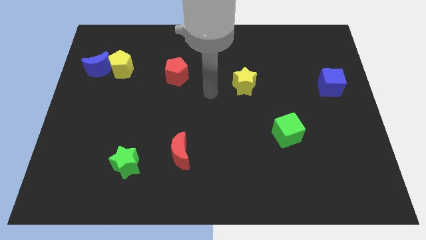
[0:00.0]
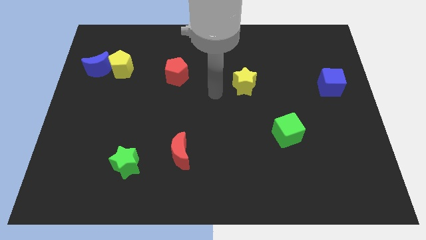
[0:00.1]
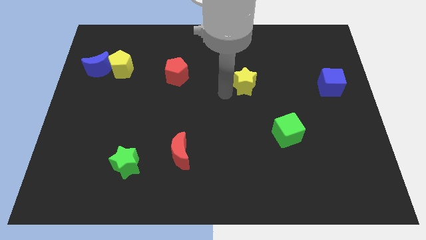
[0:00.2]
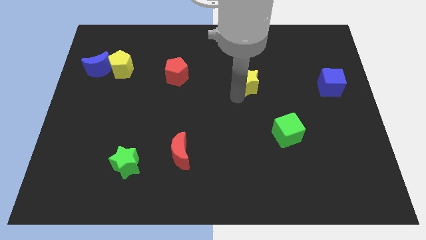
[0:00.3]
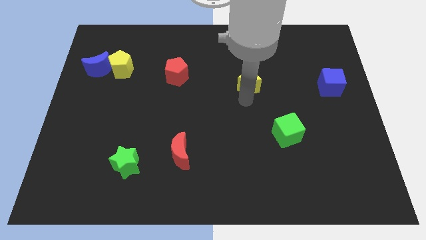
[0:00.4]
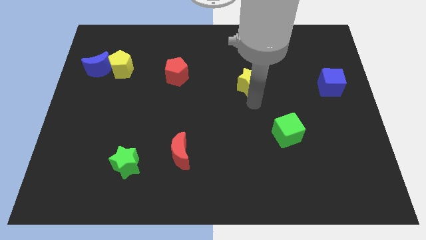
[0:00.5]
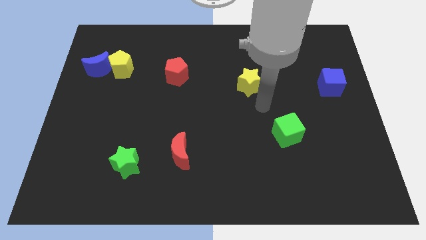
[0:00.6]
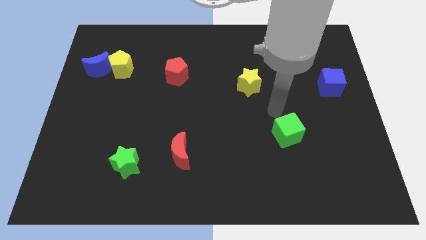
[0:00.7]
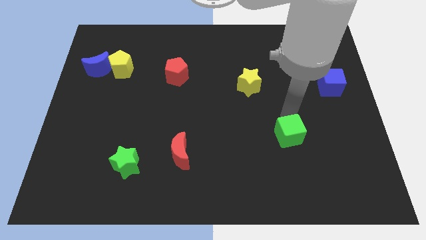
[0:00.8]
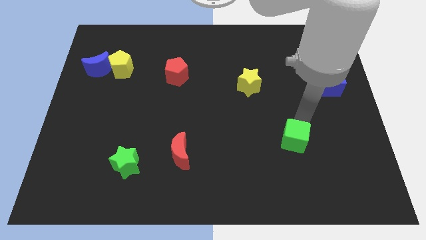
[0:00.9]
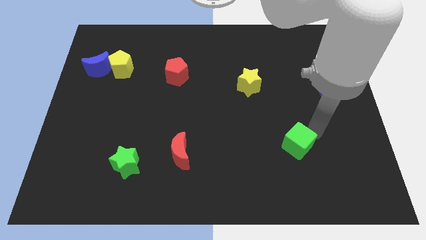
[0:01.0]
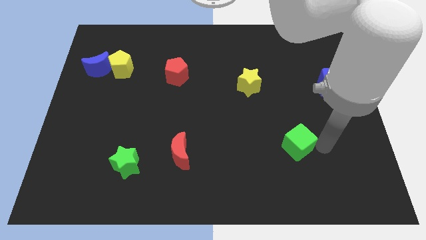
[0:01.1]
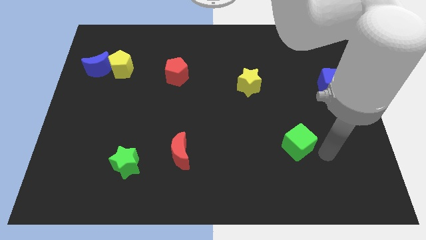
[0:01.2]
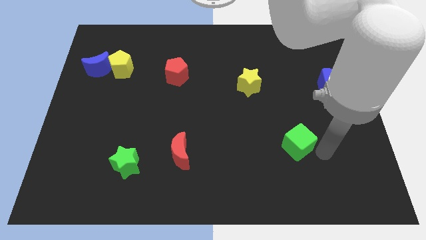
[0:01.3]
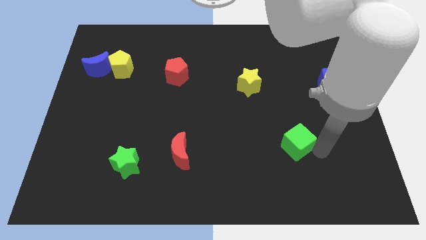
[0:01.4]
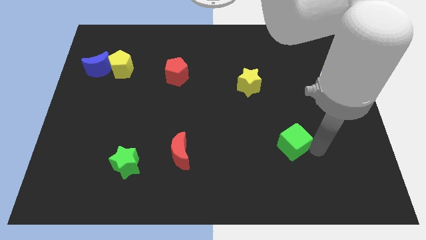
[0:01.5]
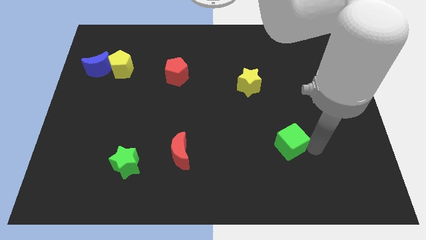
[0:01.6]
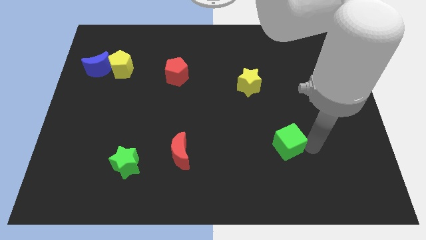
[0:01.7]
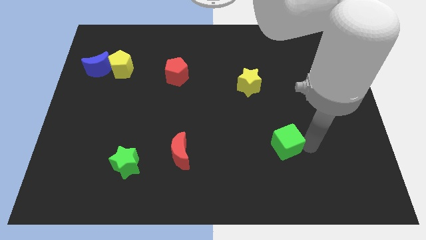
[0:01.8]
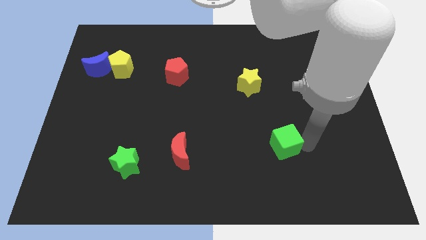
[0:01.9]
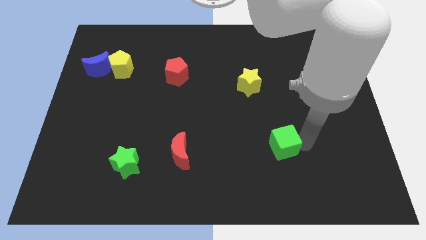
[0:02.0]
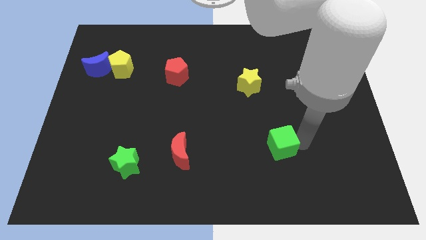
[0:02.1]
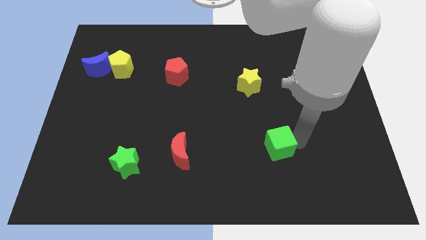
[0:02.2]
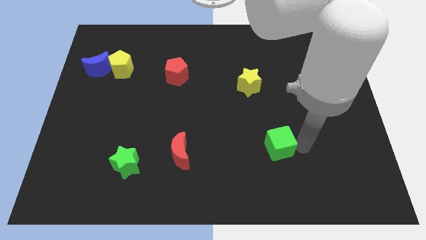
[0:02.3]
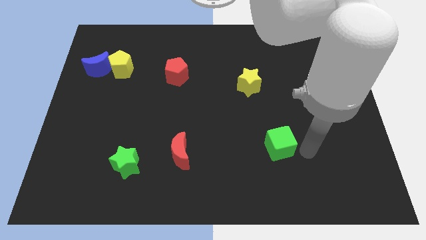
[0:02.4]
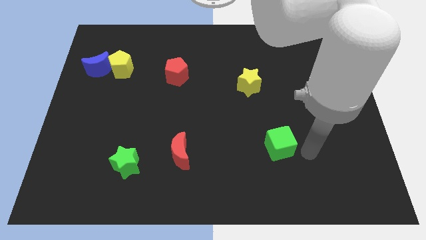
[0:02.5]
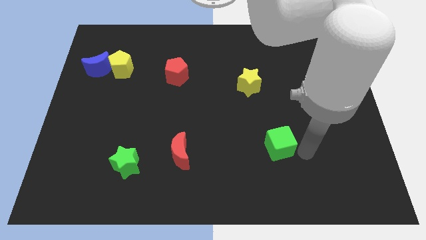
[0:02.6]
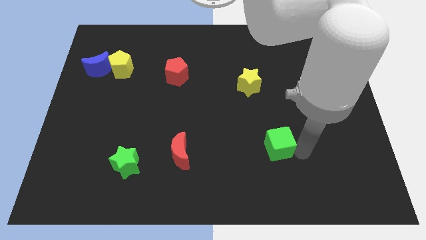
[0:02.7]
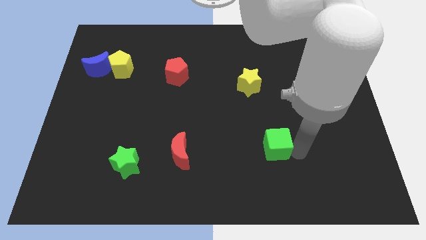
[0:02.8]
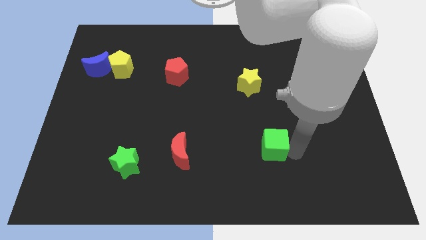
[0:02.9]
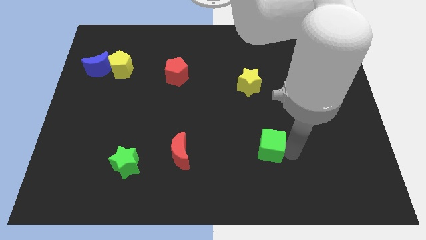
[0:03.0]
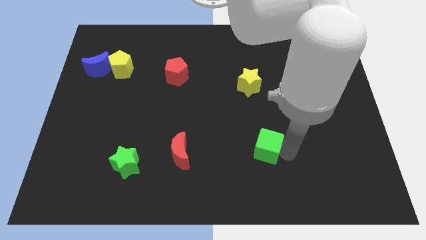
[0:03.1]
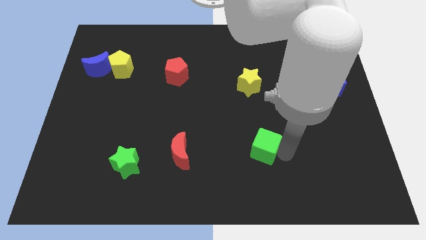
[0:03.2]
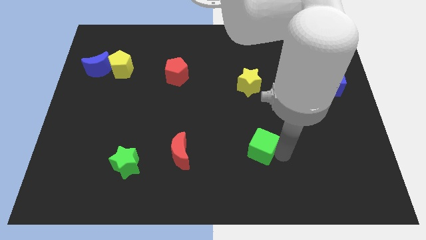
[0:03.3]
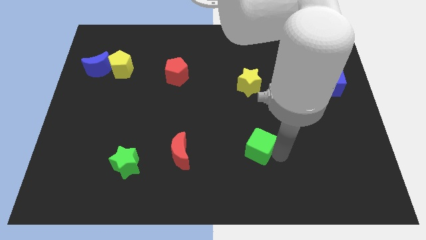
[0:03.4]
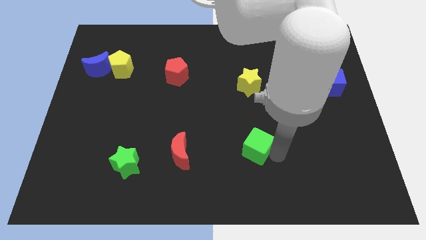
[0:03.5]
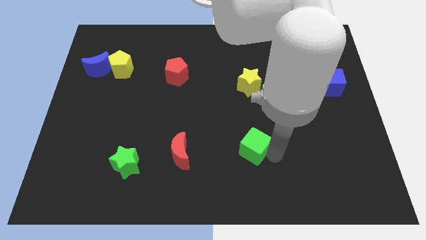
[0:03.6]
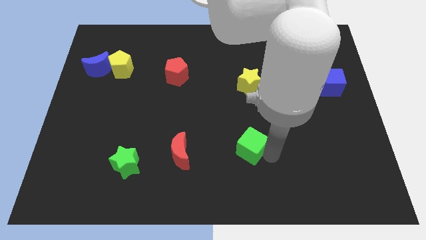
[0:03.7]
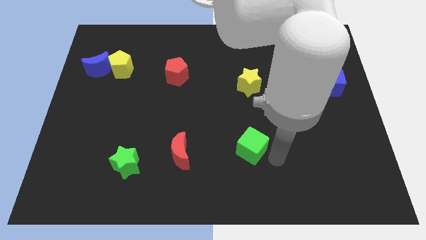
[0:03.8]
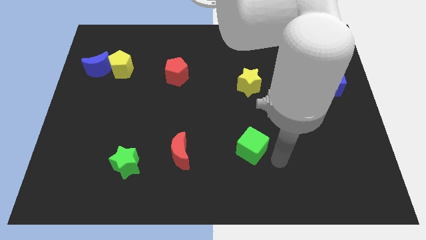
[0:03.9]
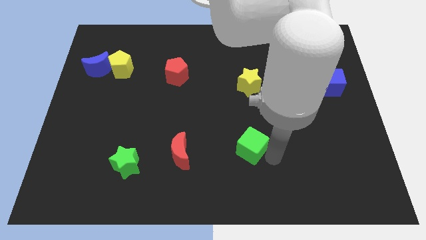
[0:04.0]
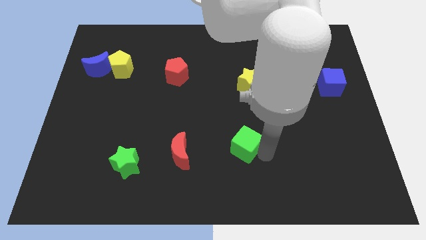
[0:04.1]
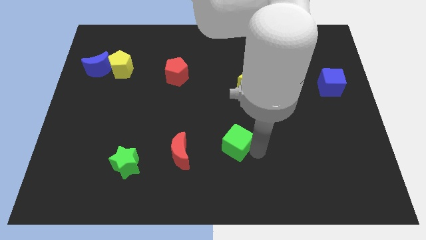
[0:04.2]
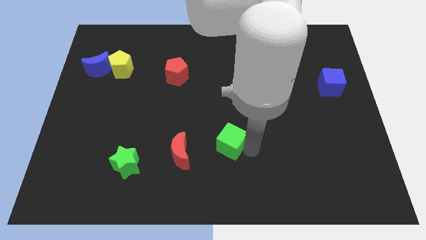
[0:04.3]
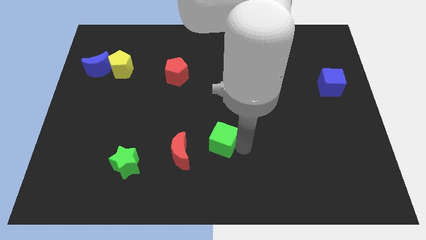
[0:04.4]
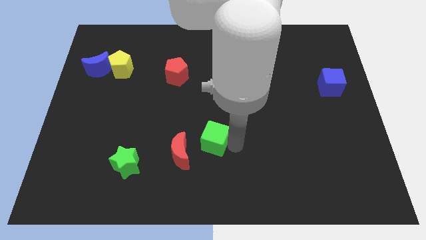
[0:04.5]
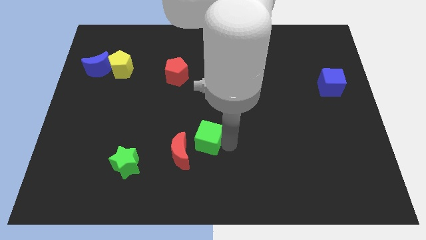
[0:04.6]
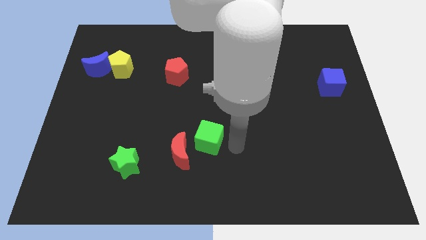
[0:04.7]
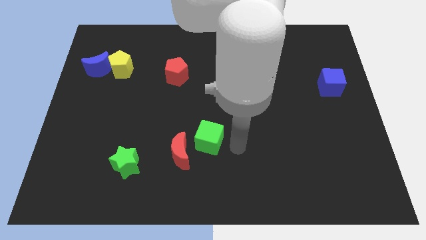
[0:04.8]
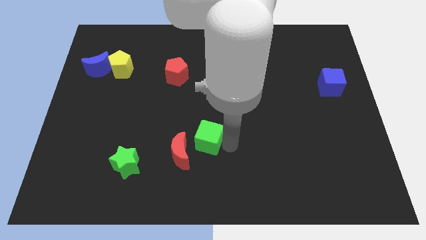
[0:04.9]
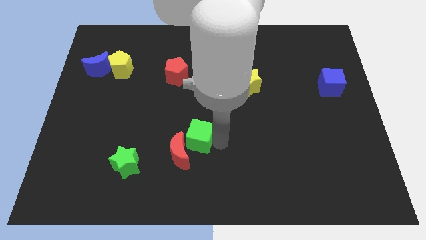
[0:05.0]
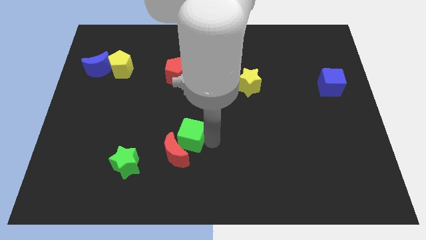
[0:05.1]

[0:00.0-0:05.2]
push the green cube to the left

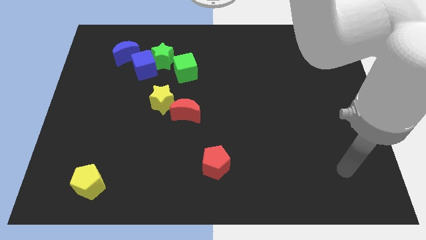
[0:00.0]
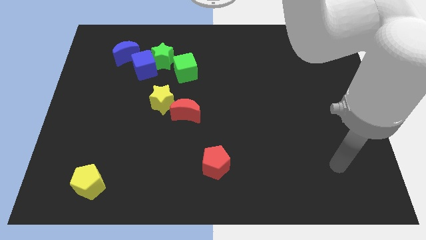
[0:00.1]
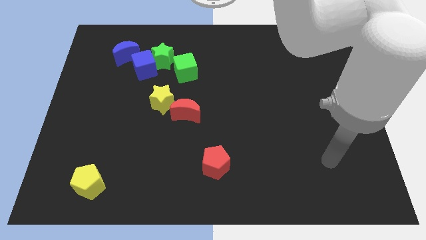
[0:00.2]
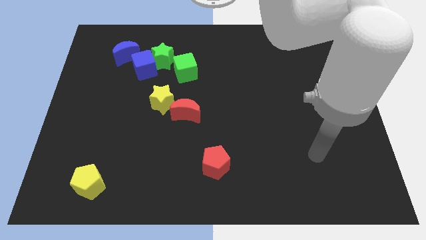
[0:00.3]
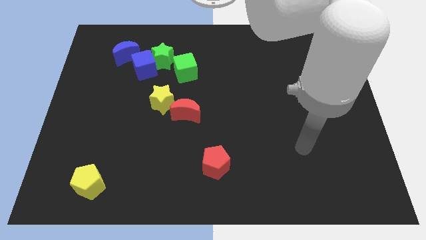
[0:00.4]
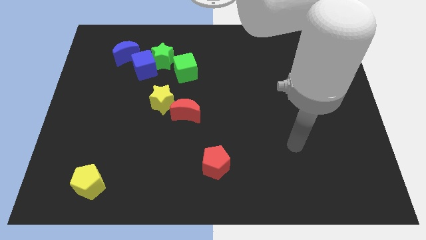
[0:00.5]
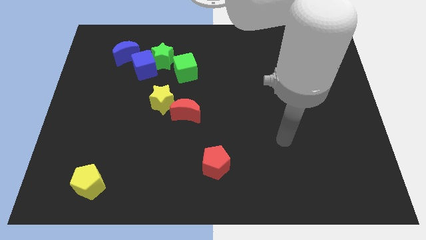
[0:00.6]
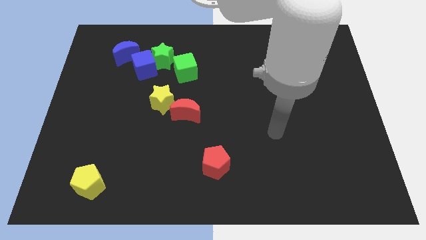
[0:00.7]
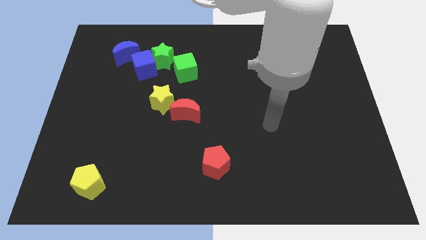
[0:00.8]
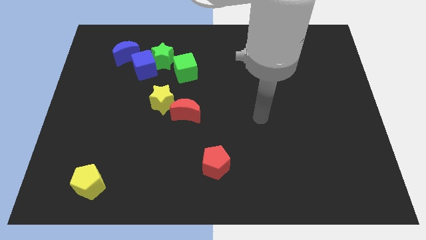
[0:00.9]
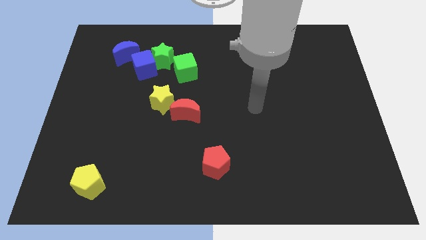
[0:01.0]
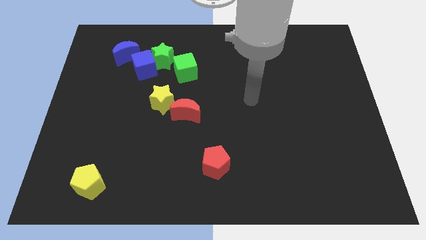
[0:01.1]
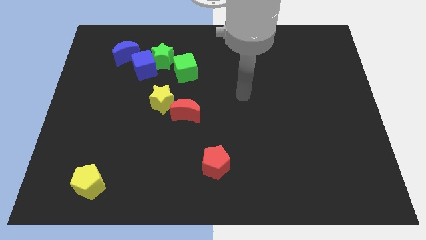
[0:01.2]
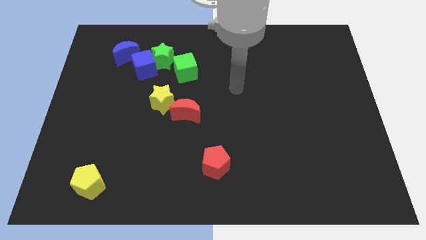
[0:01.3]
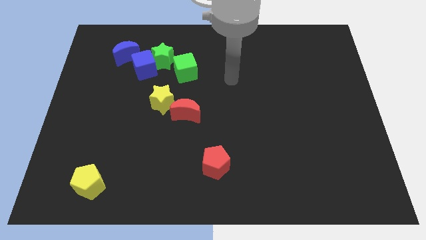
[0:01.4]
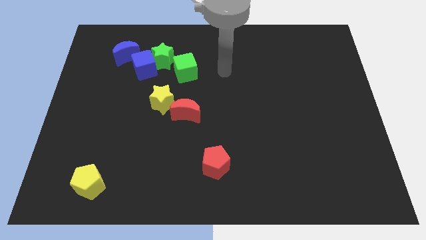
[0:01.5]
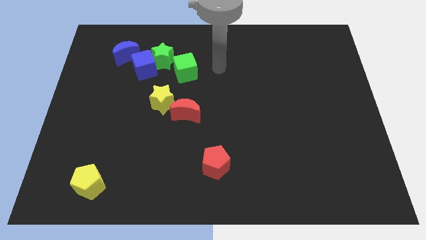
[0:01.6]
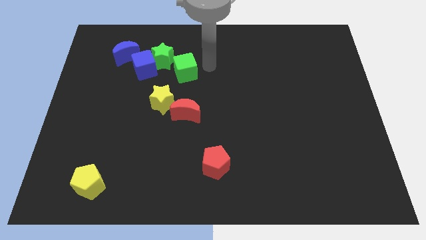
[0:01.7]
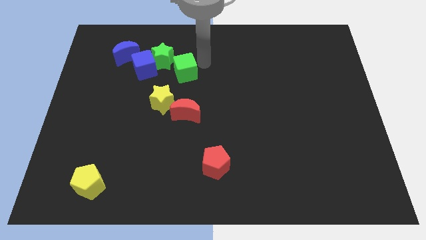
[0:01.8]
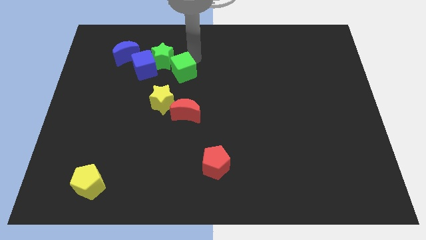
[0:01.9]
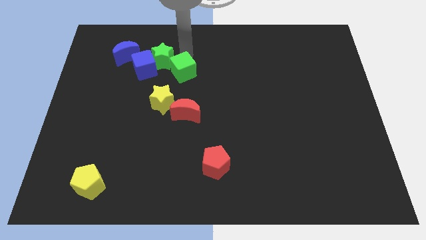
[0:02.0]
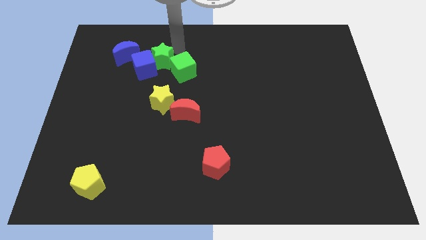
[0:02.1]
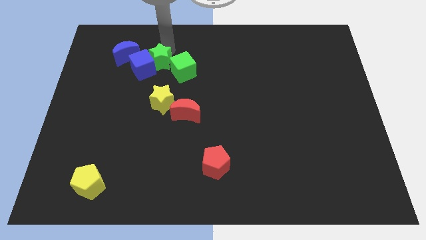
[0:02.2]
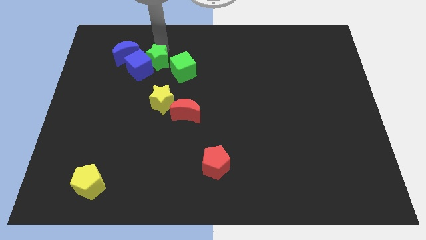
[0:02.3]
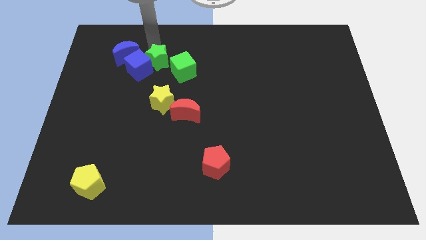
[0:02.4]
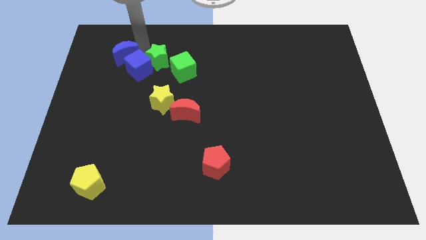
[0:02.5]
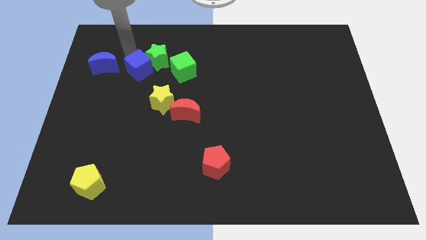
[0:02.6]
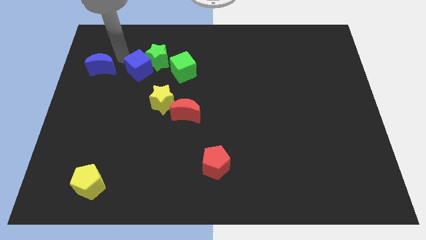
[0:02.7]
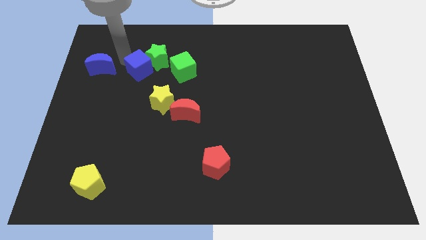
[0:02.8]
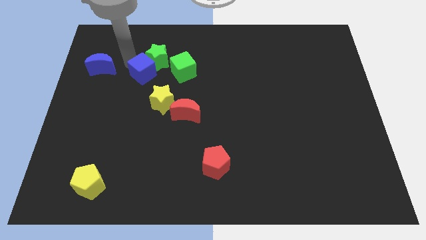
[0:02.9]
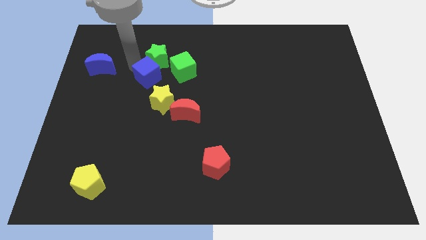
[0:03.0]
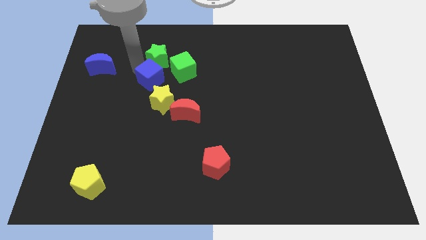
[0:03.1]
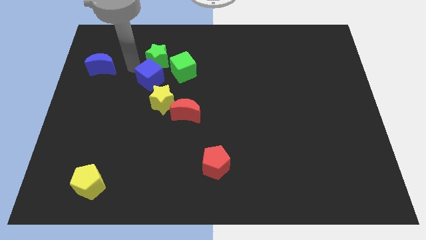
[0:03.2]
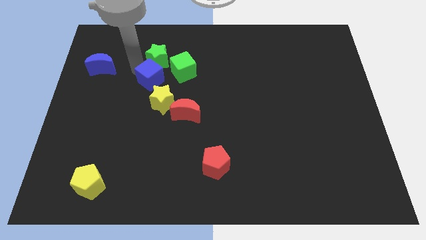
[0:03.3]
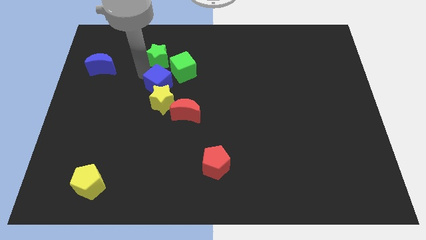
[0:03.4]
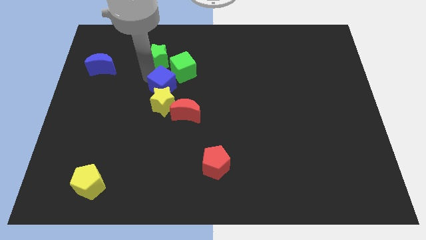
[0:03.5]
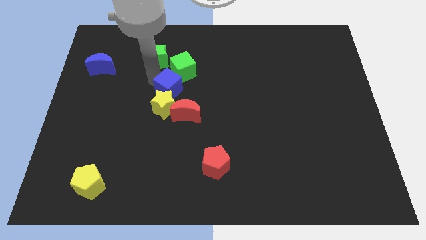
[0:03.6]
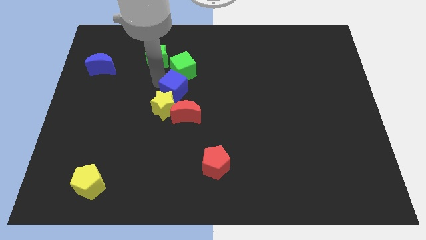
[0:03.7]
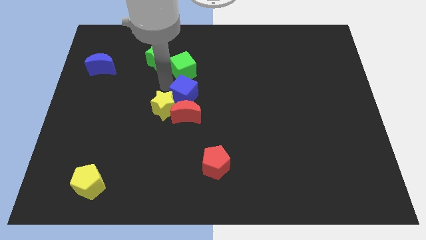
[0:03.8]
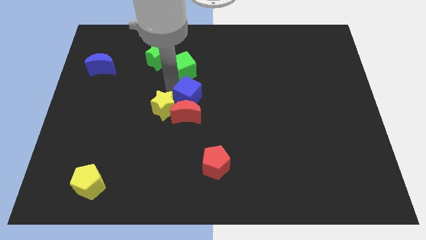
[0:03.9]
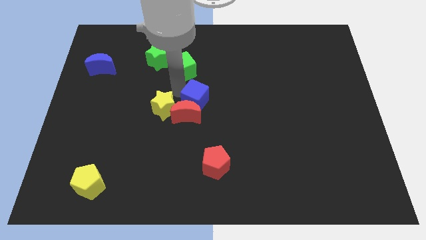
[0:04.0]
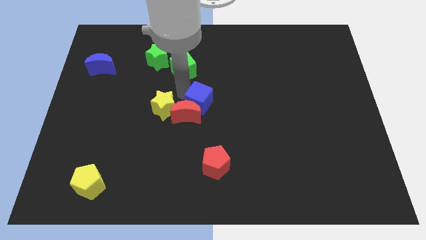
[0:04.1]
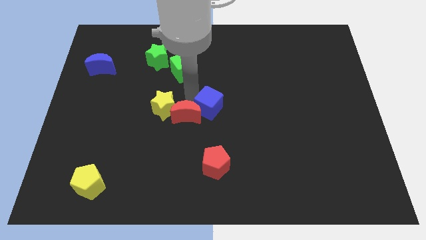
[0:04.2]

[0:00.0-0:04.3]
push the blue cube downwards and to the right
